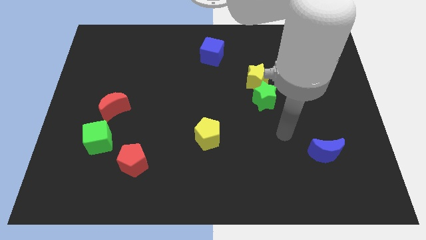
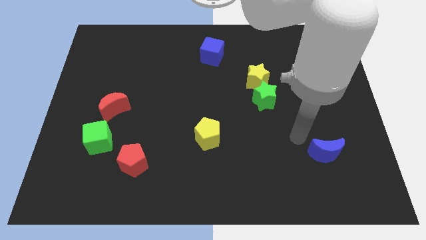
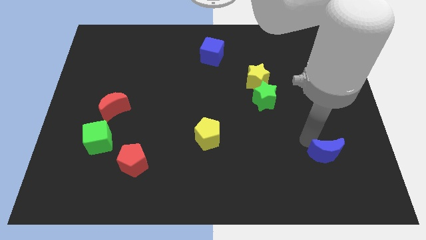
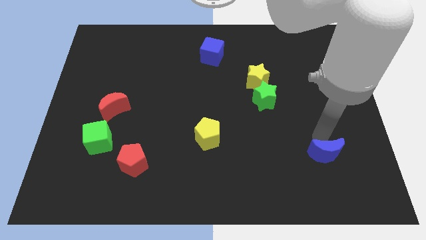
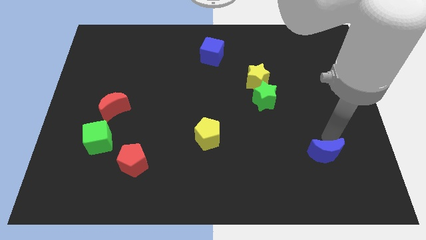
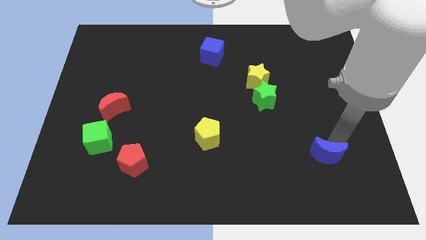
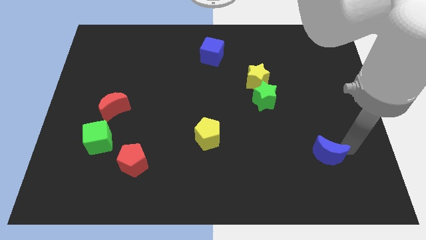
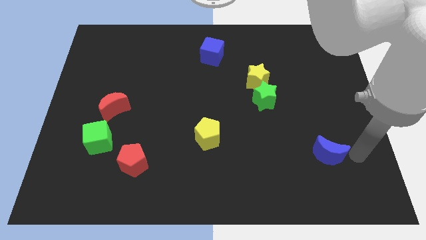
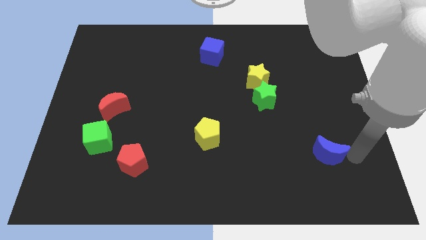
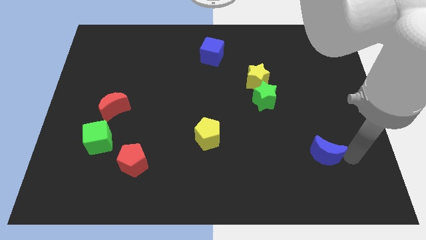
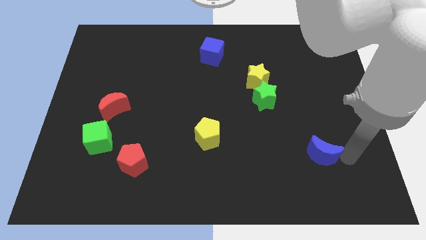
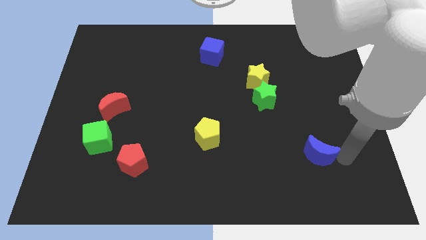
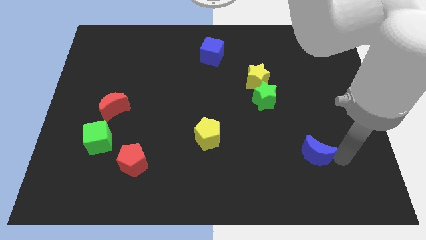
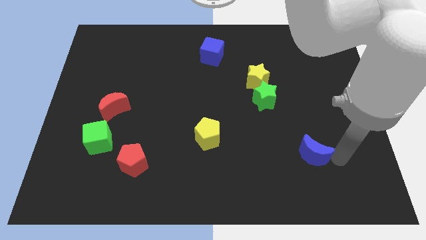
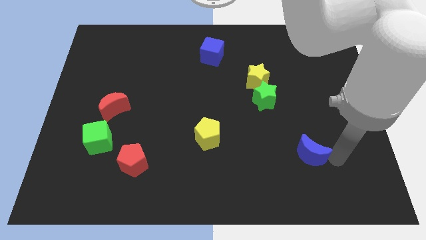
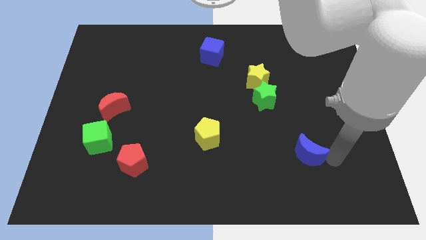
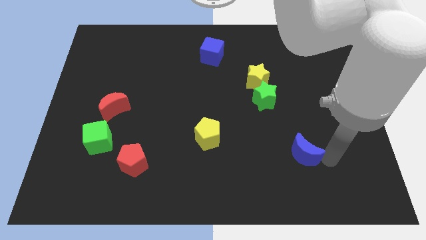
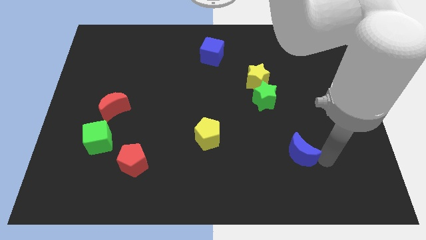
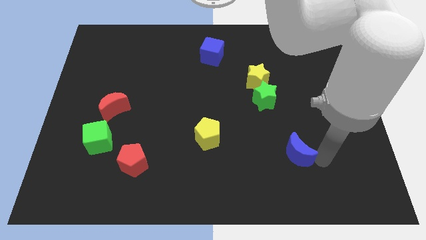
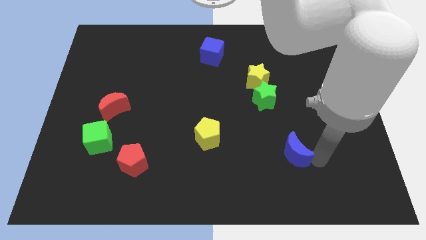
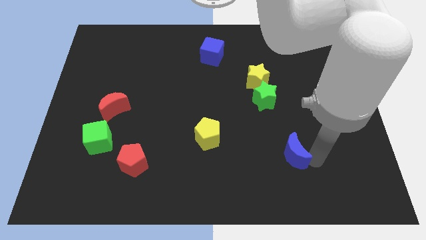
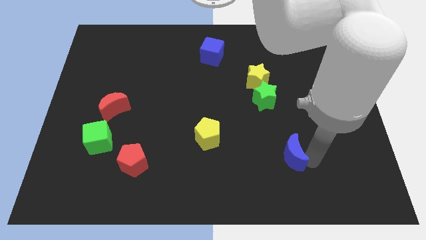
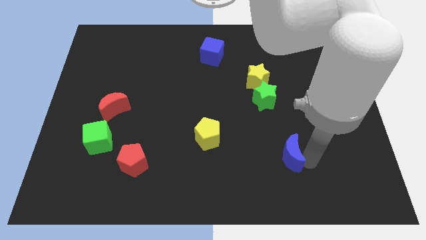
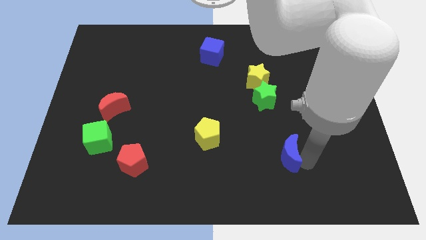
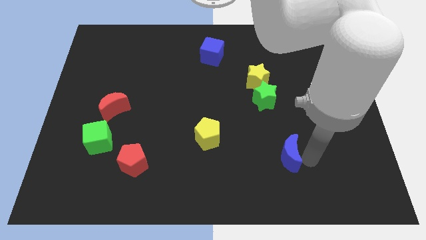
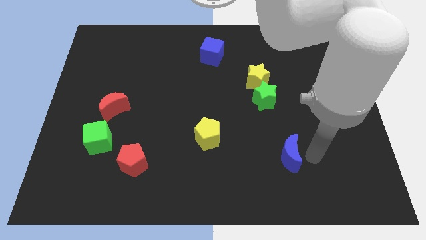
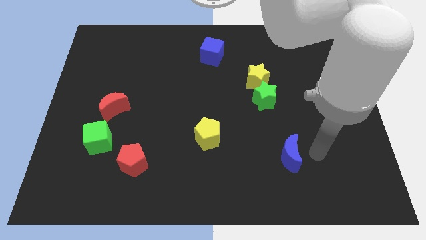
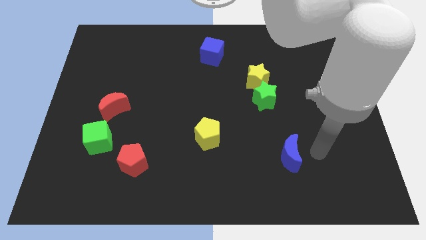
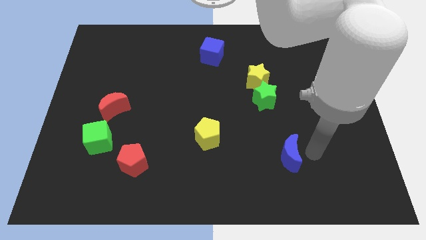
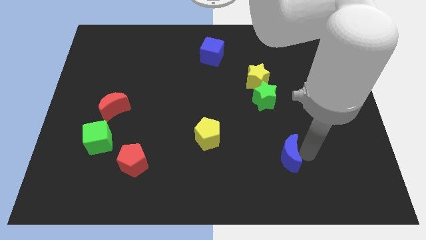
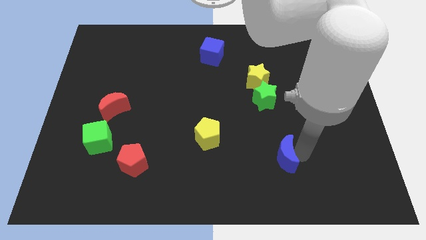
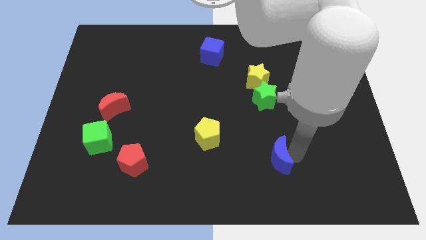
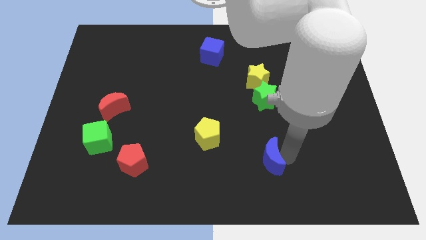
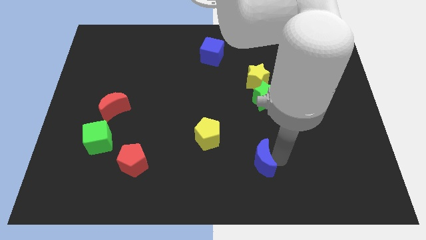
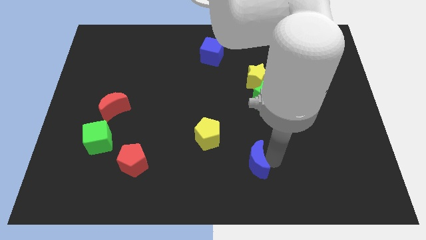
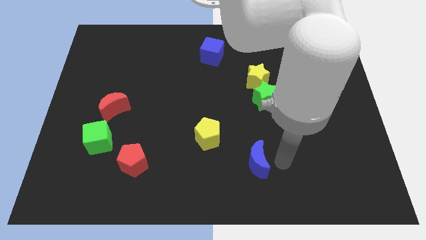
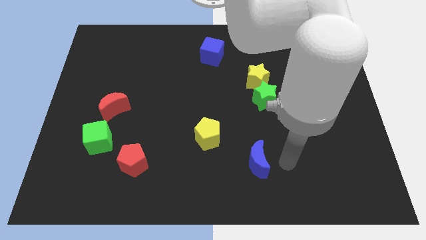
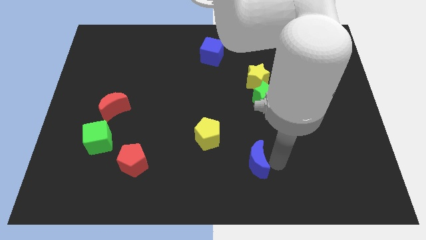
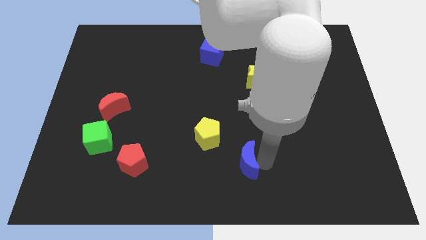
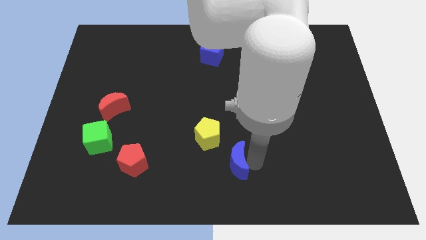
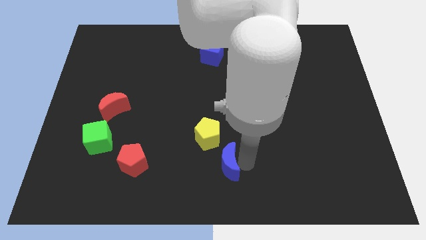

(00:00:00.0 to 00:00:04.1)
slide the blue moon to the left

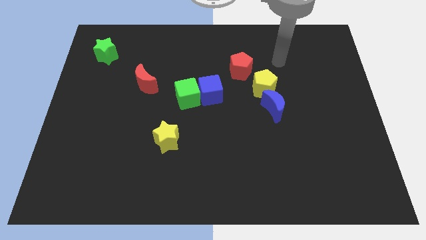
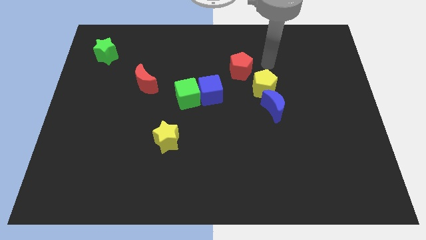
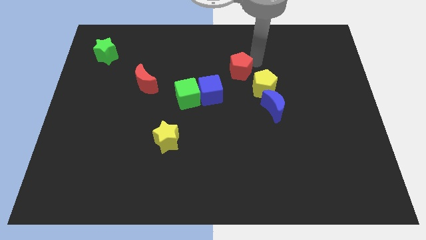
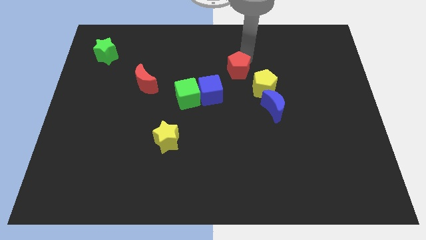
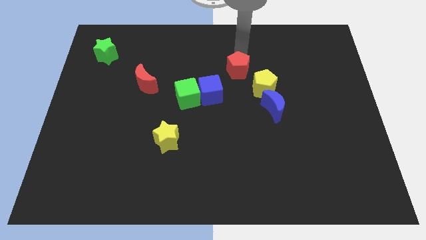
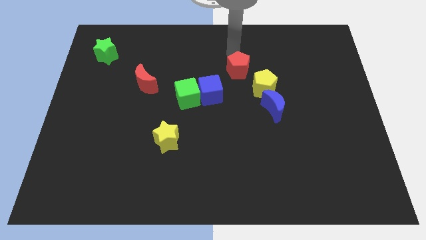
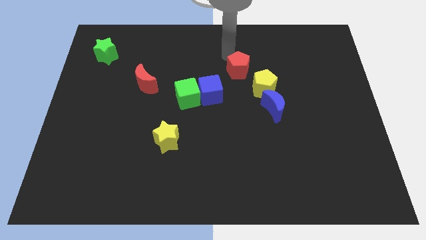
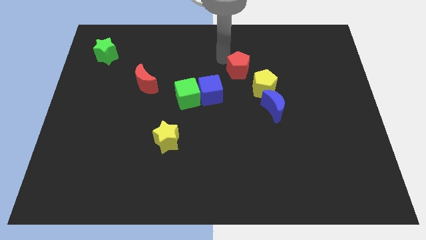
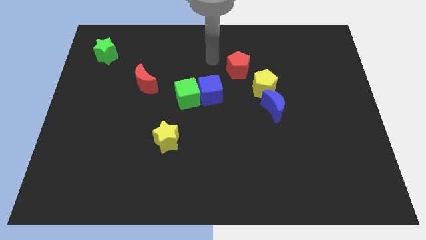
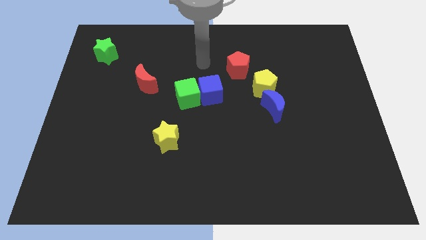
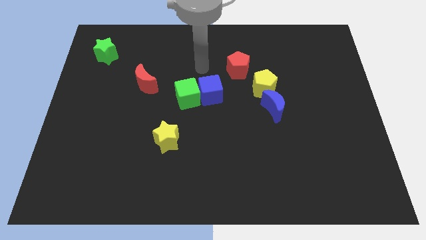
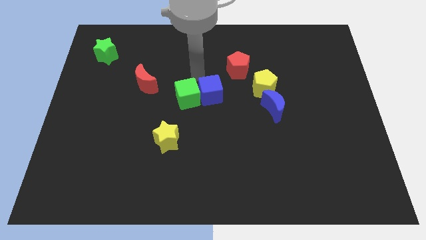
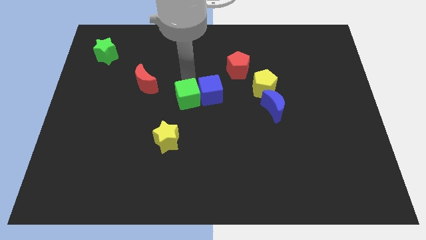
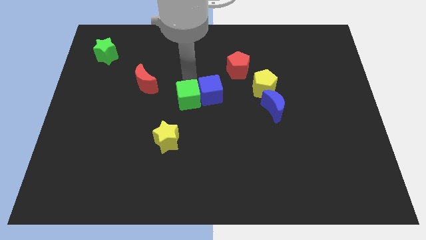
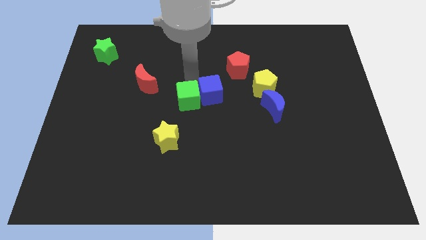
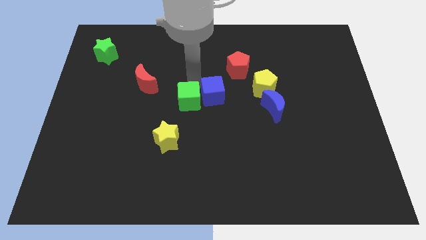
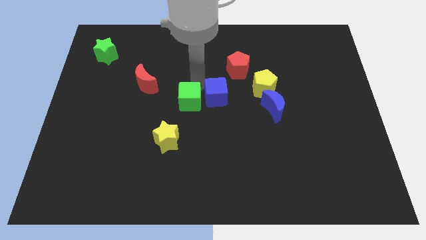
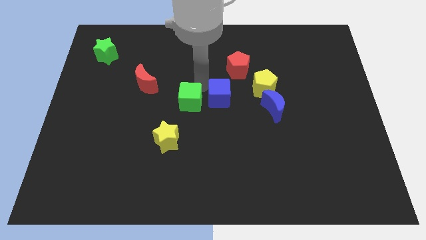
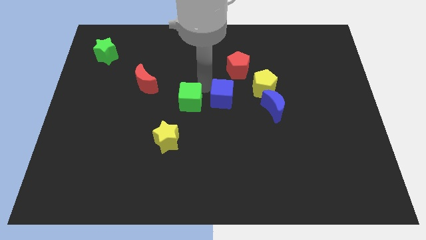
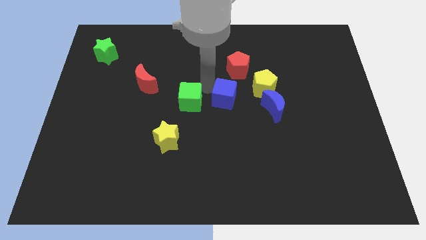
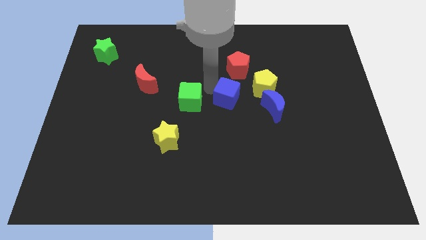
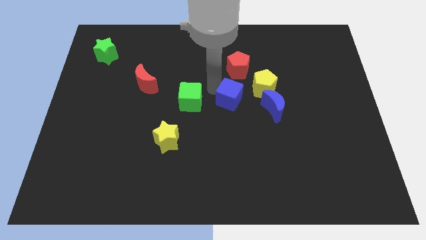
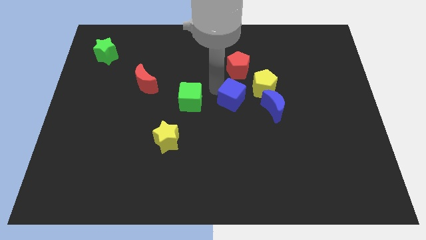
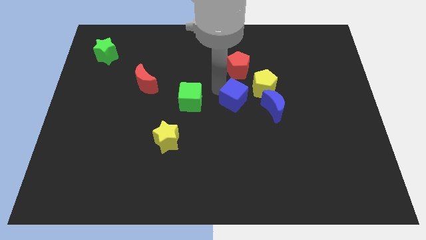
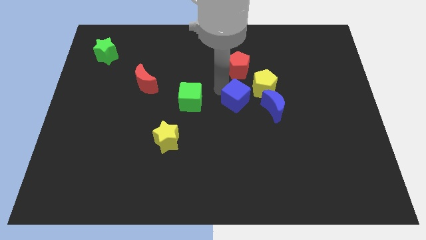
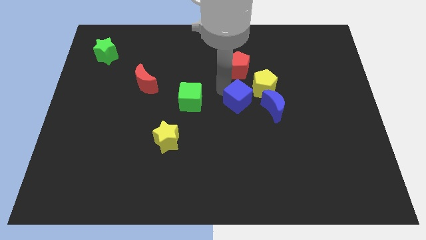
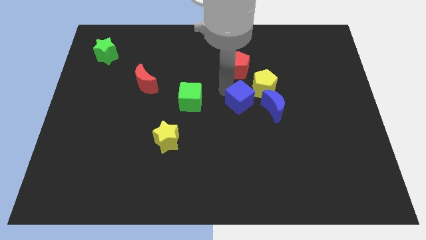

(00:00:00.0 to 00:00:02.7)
push the blue cube right a bit

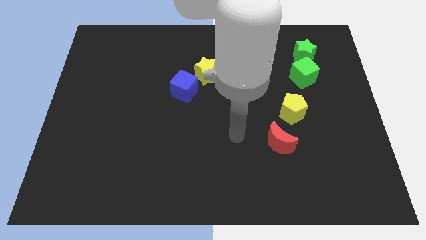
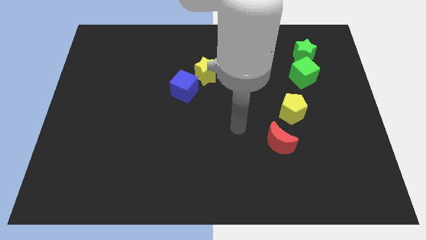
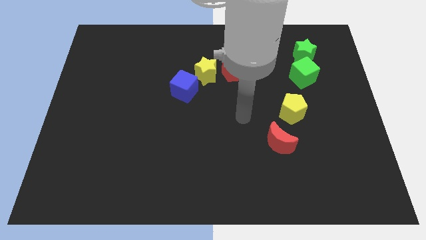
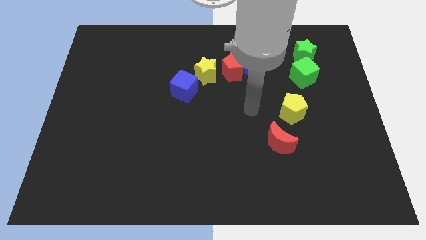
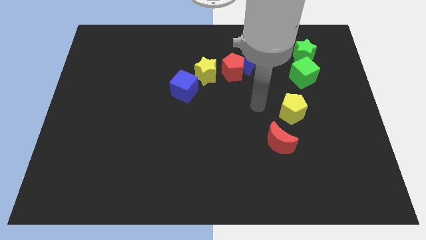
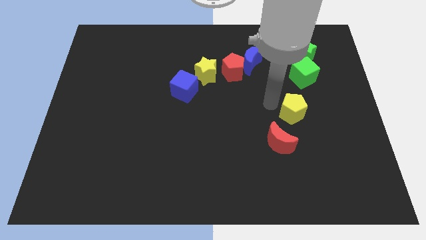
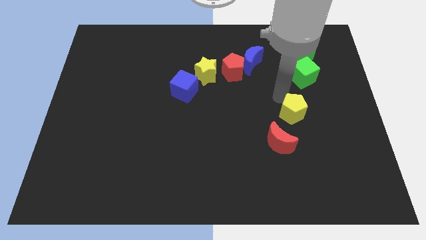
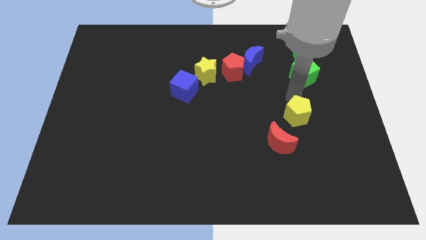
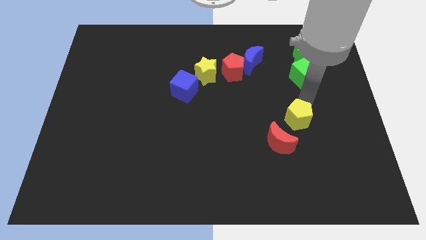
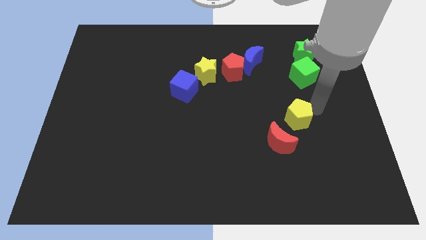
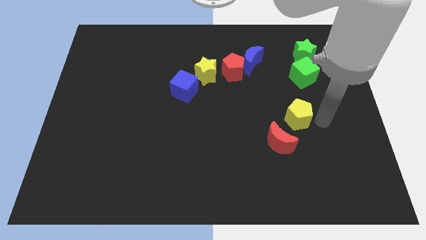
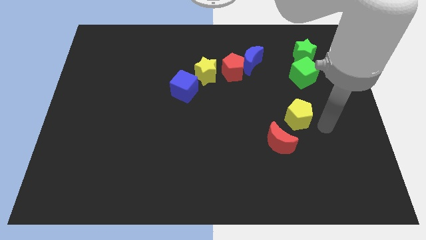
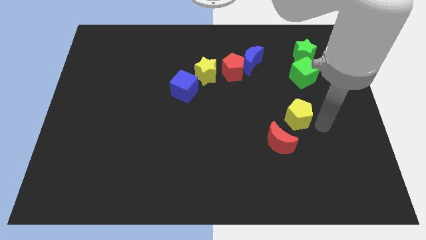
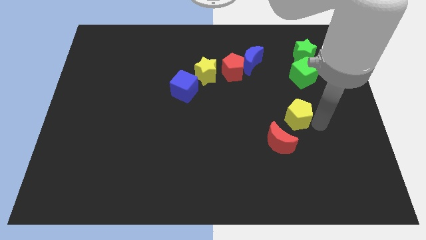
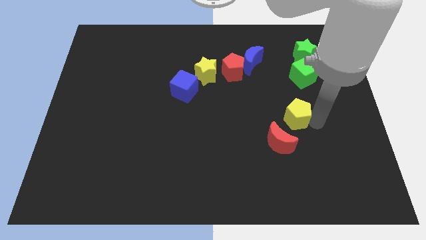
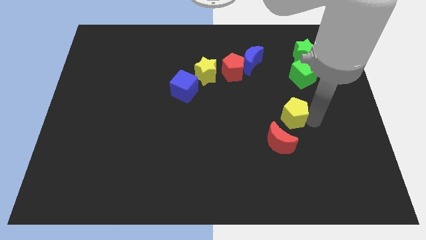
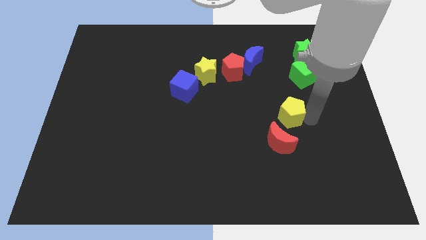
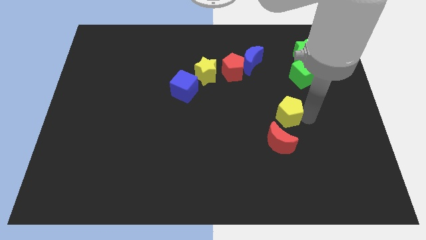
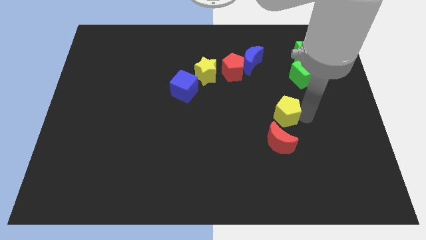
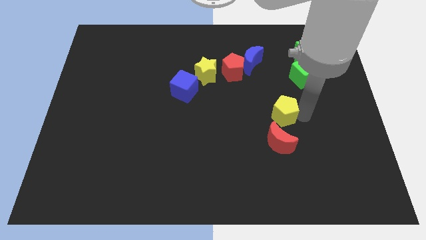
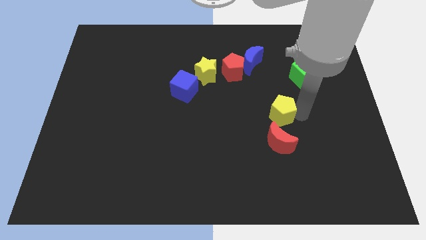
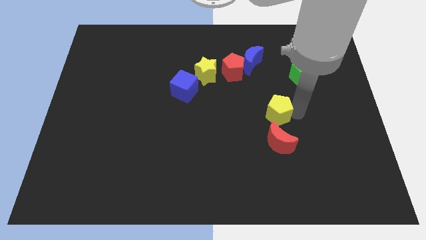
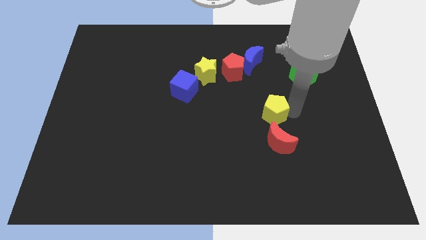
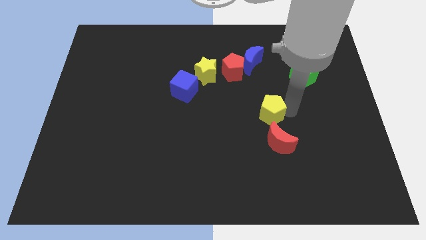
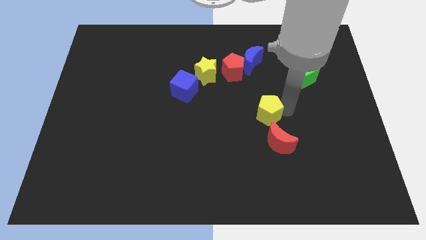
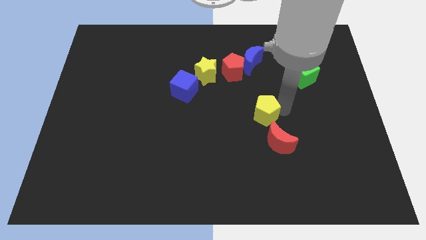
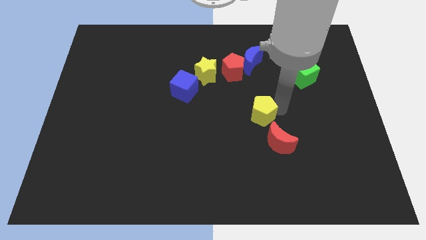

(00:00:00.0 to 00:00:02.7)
move the yellow pentagon to the left slightly
